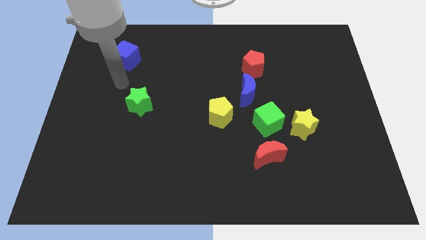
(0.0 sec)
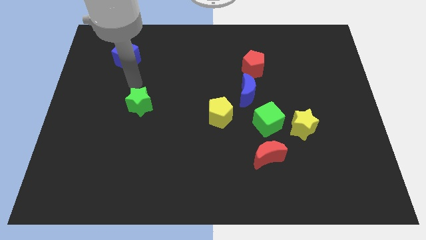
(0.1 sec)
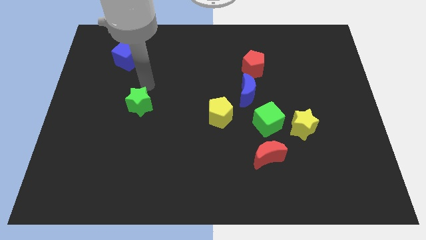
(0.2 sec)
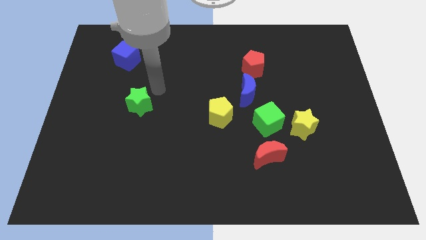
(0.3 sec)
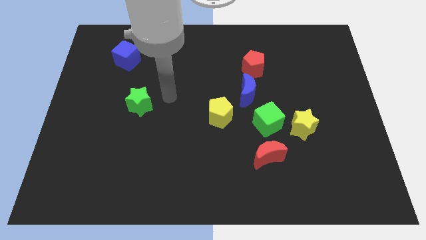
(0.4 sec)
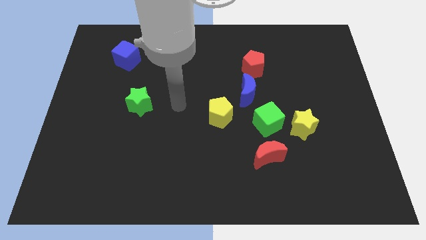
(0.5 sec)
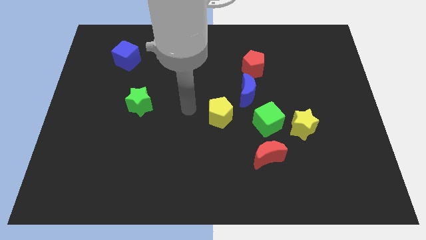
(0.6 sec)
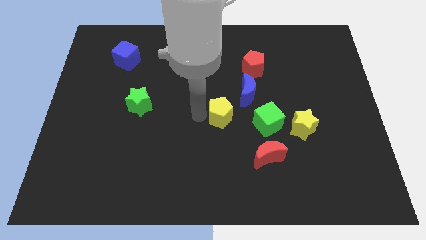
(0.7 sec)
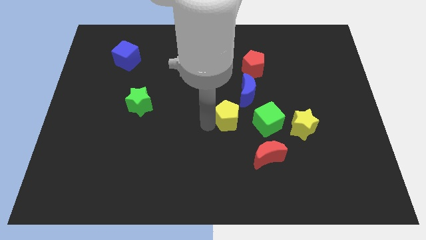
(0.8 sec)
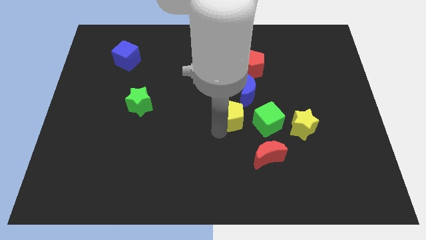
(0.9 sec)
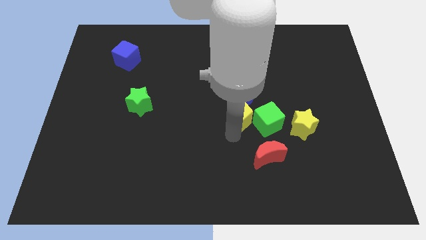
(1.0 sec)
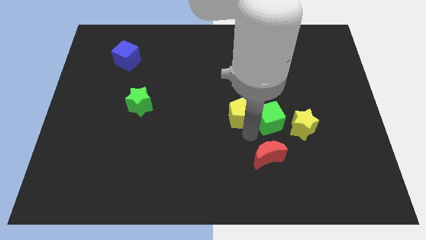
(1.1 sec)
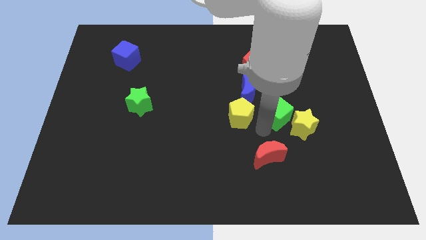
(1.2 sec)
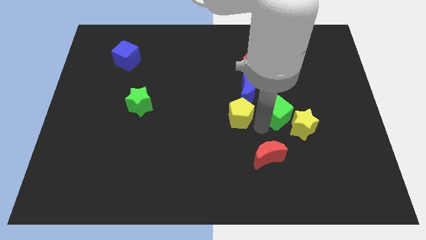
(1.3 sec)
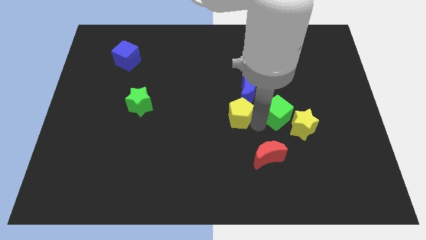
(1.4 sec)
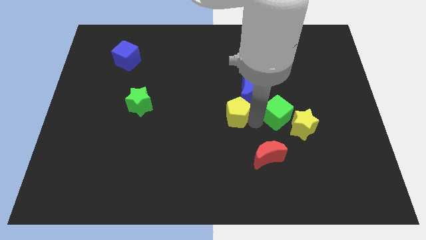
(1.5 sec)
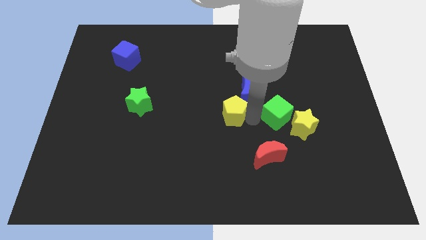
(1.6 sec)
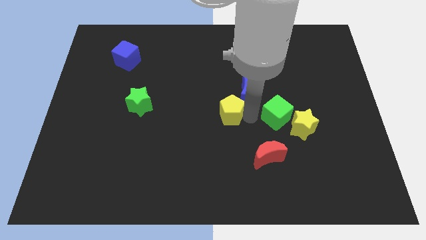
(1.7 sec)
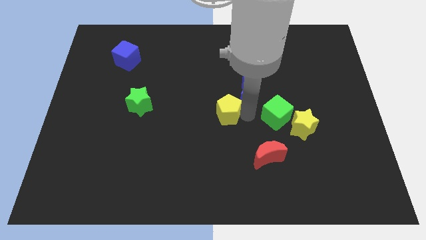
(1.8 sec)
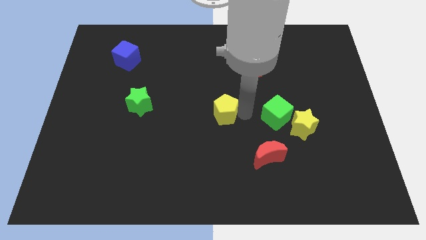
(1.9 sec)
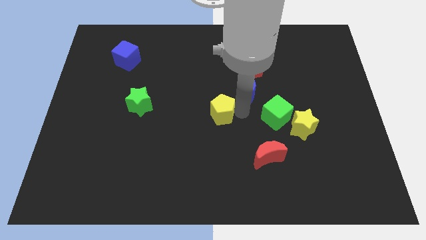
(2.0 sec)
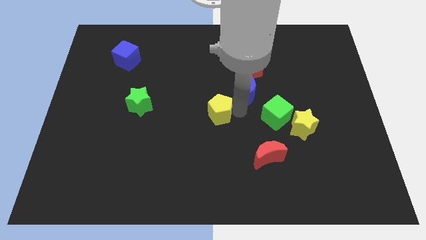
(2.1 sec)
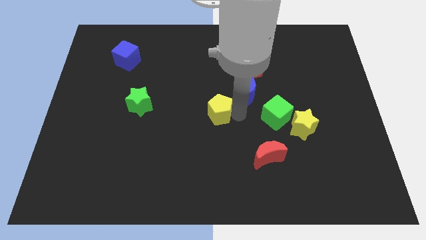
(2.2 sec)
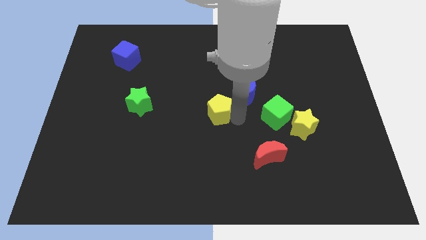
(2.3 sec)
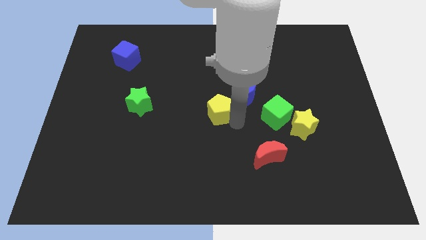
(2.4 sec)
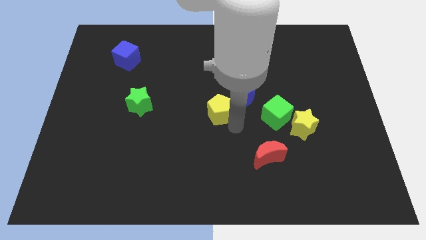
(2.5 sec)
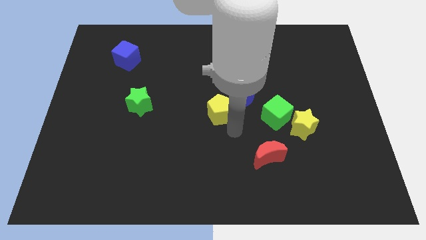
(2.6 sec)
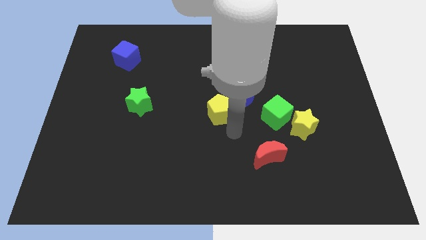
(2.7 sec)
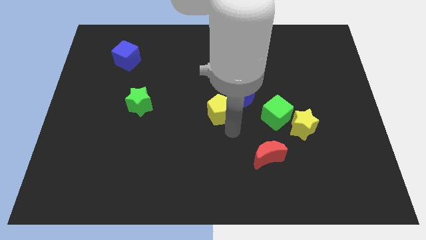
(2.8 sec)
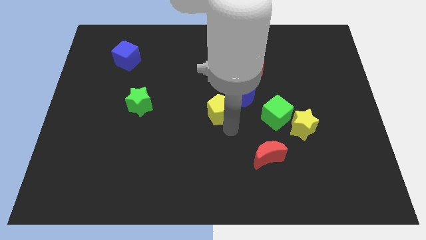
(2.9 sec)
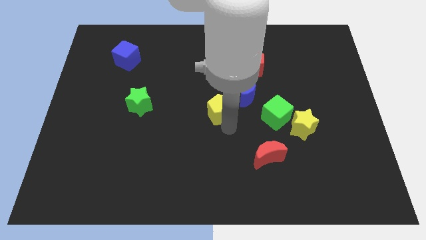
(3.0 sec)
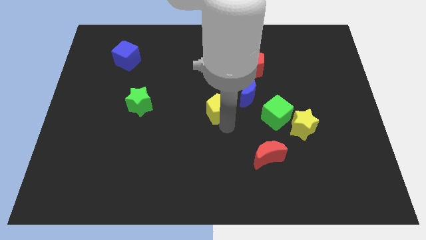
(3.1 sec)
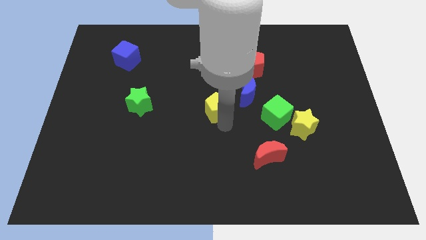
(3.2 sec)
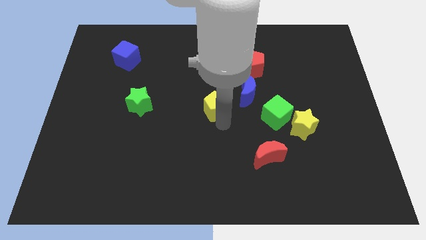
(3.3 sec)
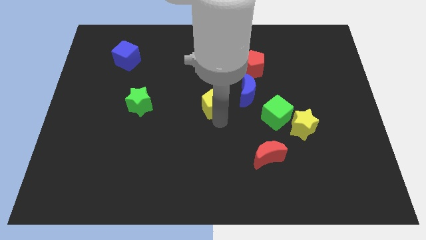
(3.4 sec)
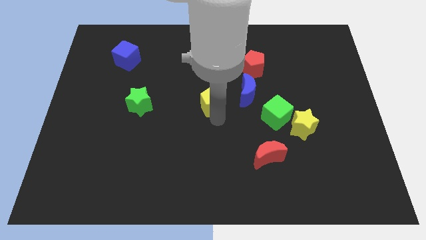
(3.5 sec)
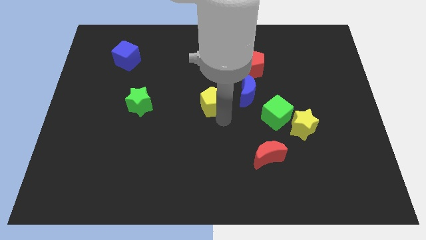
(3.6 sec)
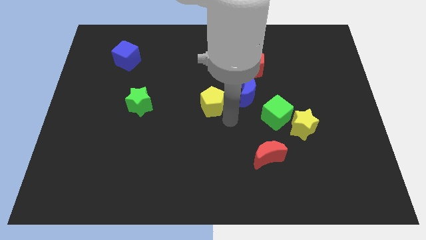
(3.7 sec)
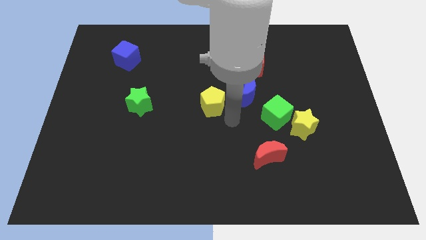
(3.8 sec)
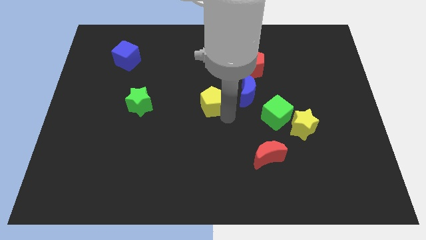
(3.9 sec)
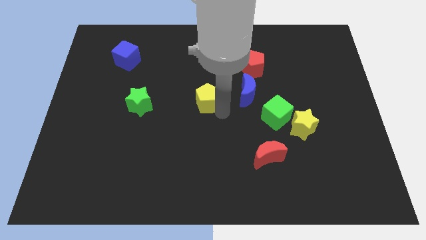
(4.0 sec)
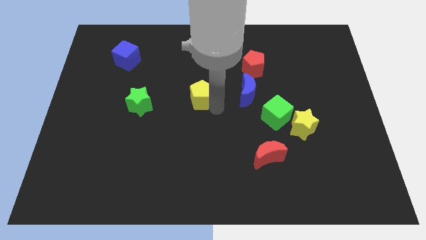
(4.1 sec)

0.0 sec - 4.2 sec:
push the yellow pentagon a little up and left diagonally

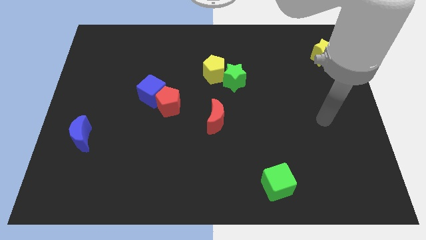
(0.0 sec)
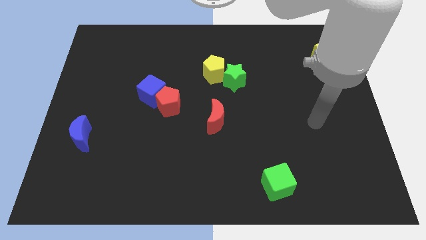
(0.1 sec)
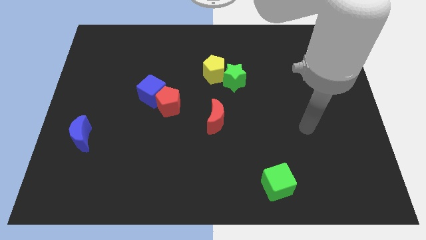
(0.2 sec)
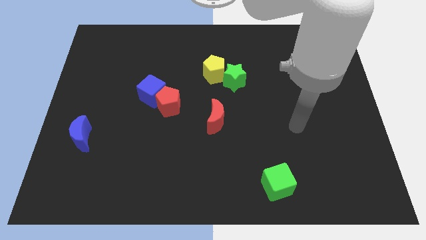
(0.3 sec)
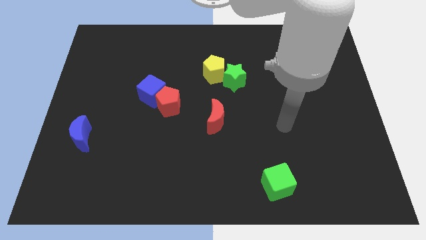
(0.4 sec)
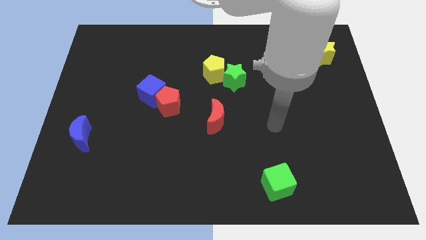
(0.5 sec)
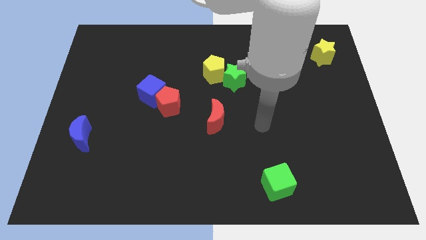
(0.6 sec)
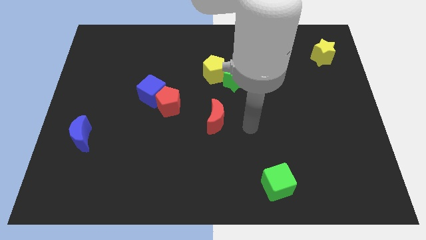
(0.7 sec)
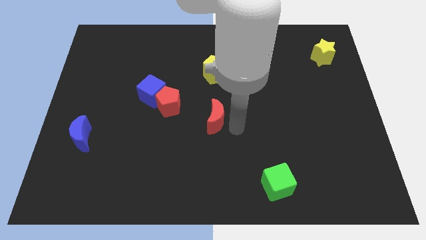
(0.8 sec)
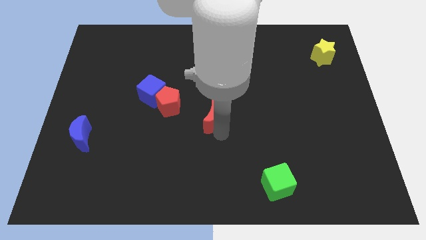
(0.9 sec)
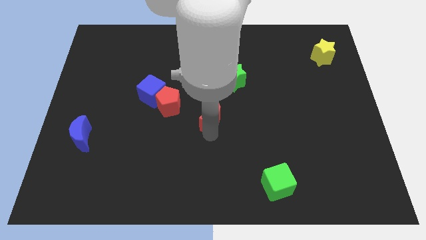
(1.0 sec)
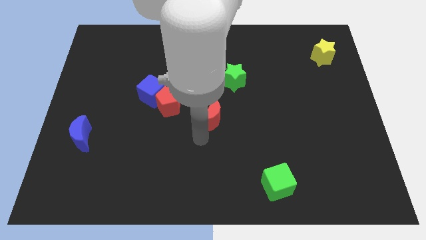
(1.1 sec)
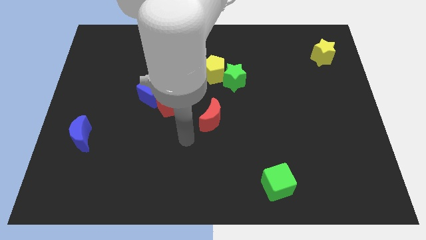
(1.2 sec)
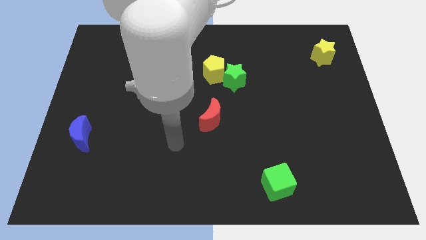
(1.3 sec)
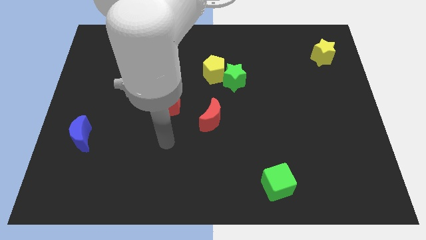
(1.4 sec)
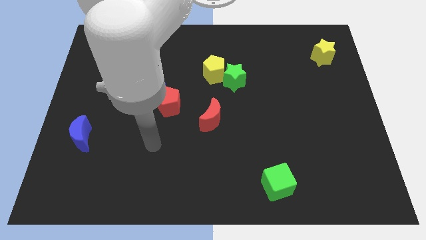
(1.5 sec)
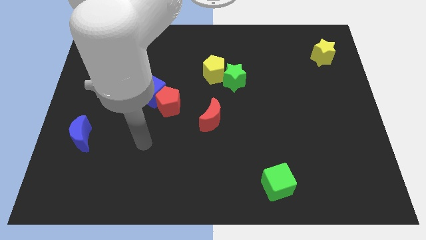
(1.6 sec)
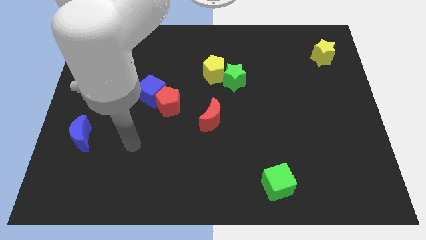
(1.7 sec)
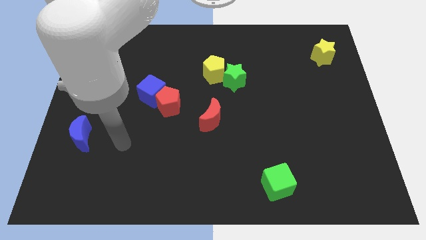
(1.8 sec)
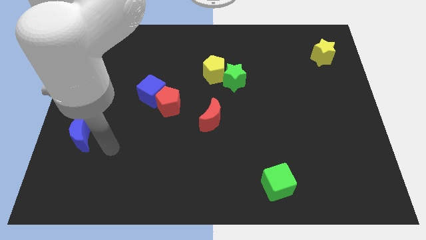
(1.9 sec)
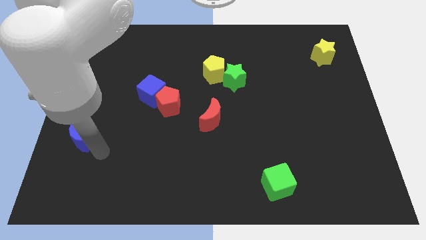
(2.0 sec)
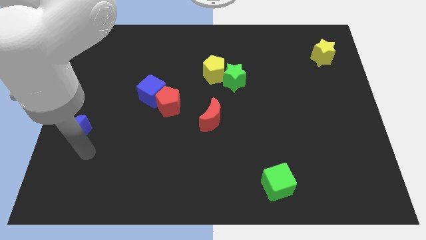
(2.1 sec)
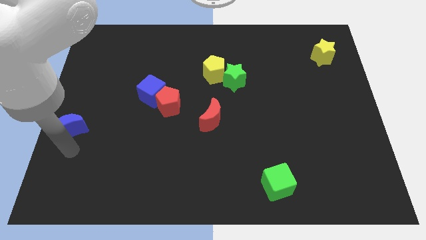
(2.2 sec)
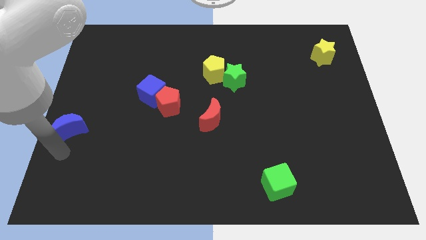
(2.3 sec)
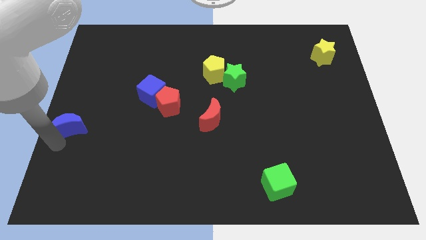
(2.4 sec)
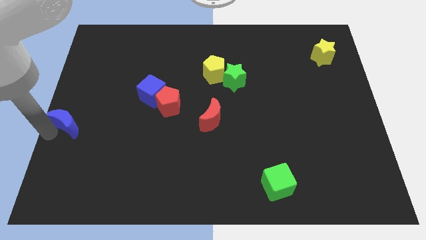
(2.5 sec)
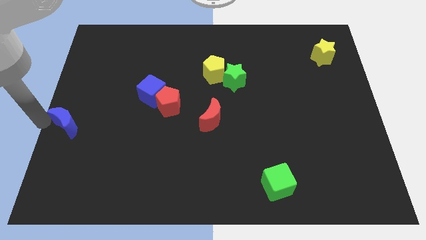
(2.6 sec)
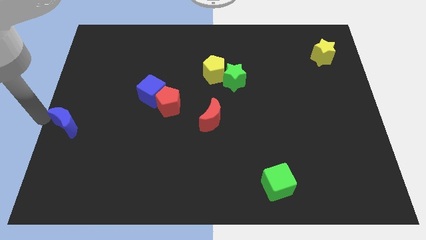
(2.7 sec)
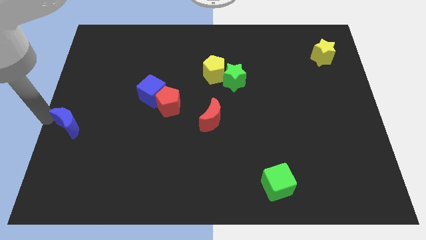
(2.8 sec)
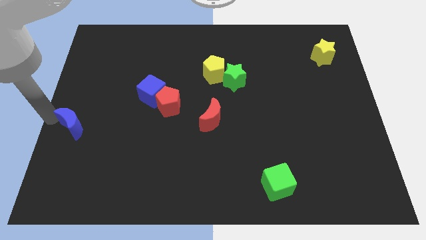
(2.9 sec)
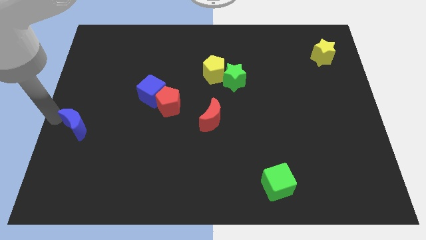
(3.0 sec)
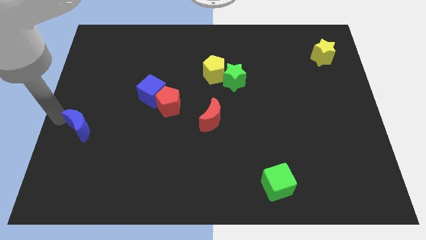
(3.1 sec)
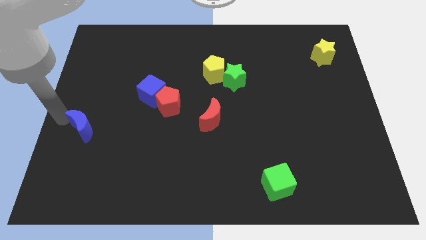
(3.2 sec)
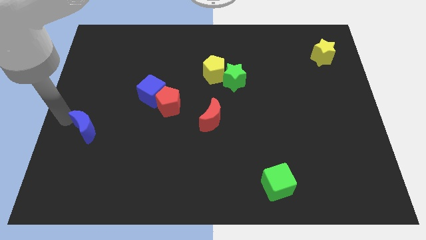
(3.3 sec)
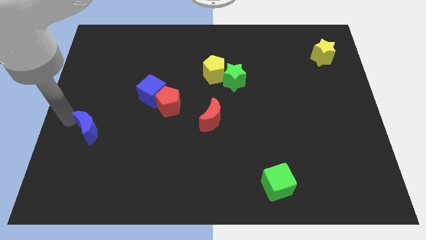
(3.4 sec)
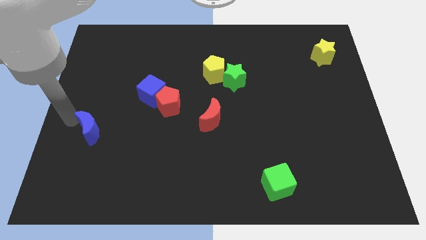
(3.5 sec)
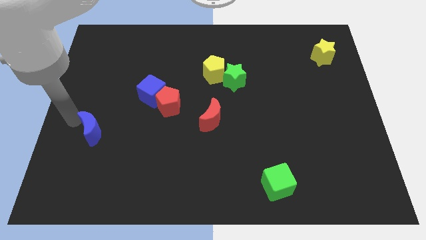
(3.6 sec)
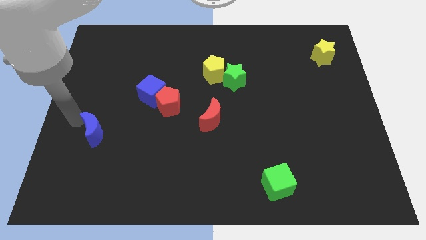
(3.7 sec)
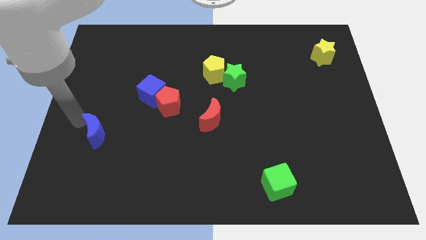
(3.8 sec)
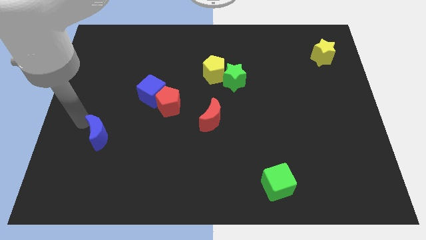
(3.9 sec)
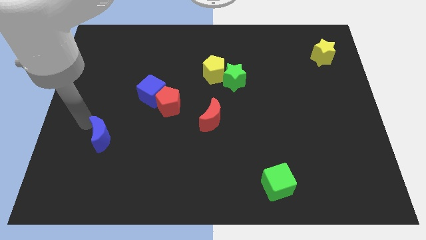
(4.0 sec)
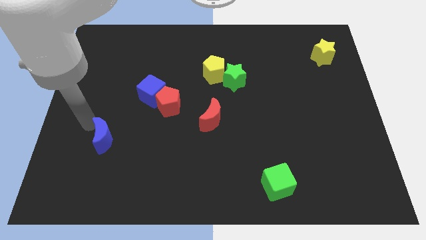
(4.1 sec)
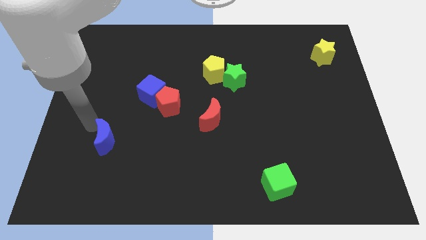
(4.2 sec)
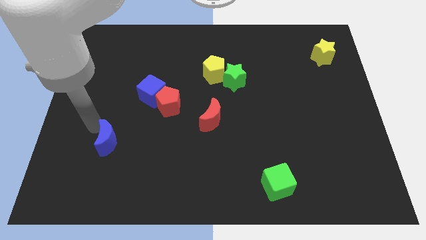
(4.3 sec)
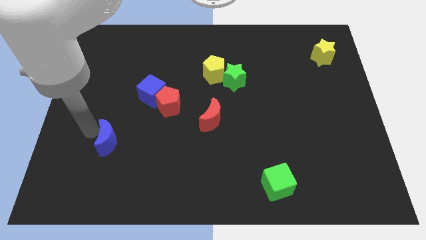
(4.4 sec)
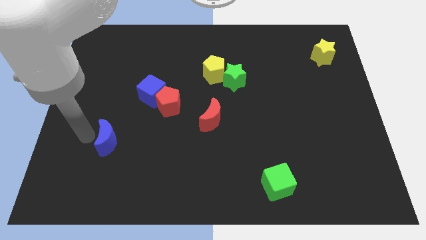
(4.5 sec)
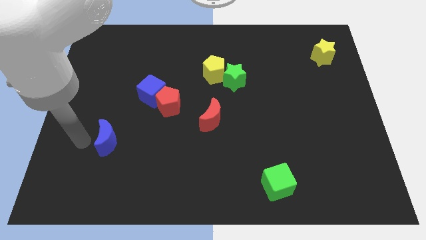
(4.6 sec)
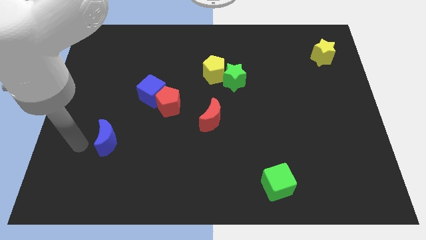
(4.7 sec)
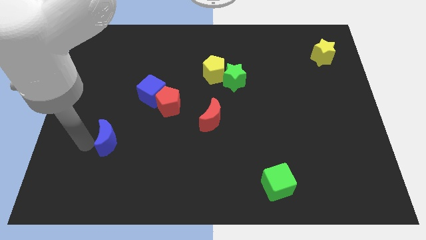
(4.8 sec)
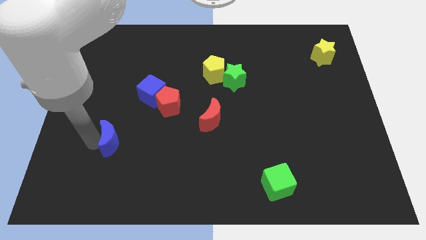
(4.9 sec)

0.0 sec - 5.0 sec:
slightly slide the blue moon to the right
